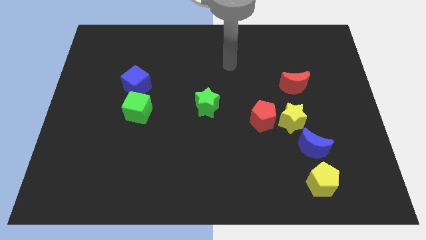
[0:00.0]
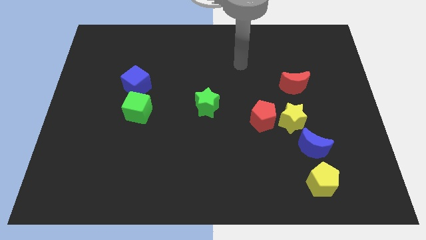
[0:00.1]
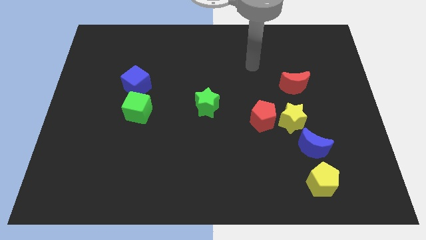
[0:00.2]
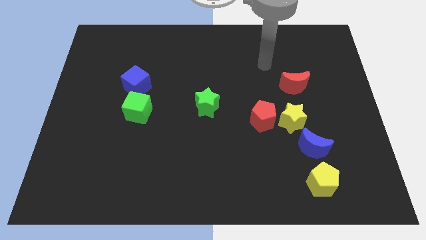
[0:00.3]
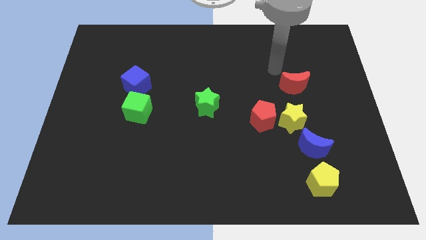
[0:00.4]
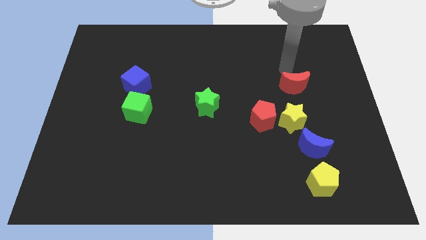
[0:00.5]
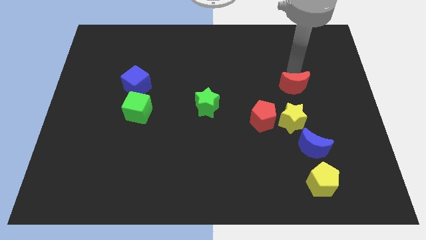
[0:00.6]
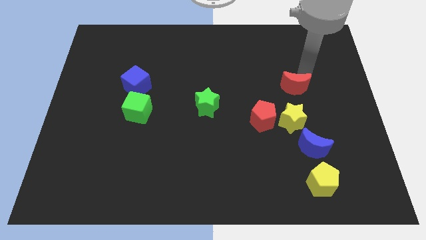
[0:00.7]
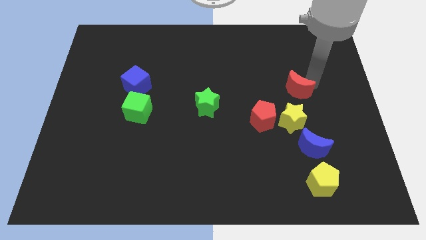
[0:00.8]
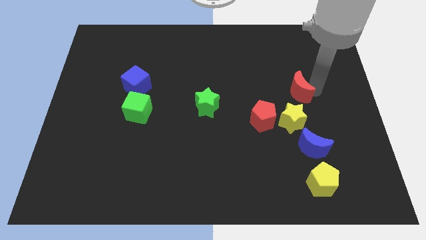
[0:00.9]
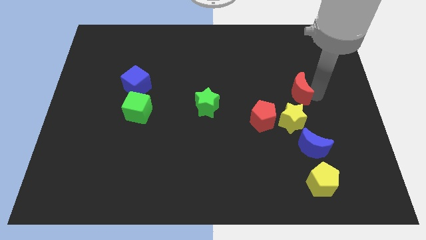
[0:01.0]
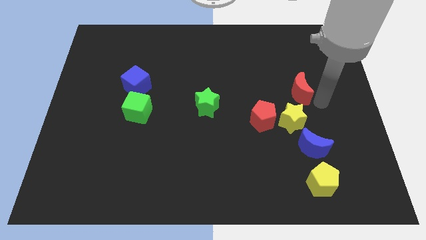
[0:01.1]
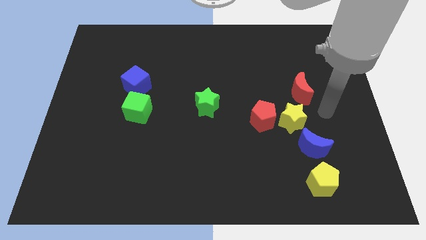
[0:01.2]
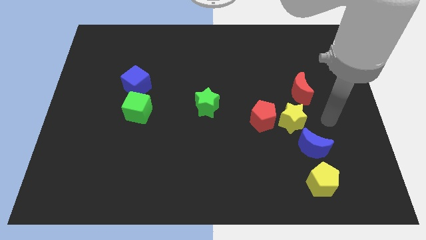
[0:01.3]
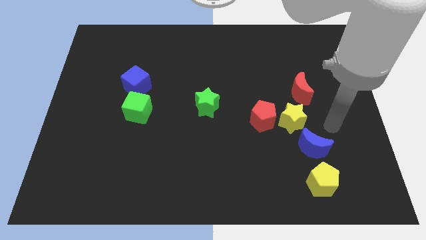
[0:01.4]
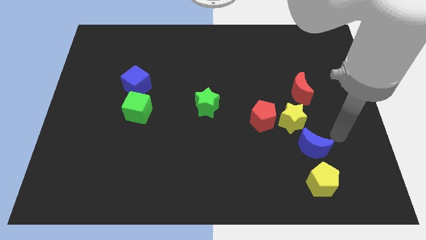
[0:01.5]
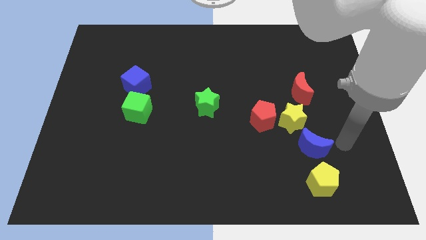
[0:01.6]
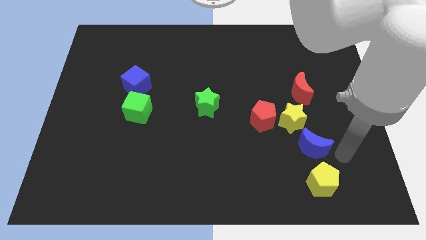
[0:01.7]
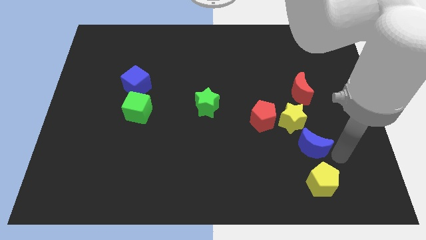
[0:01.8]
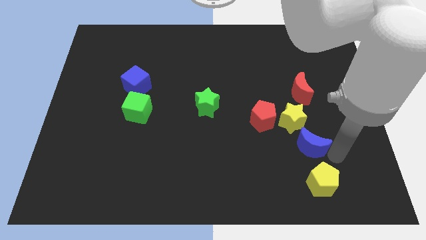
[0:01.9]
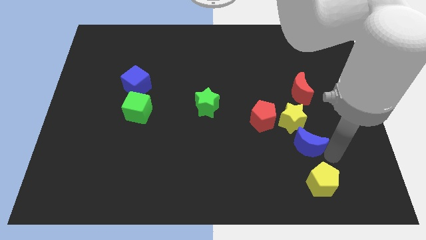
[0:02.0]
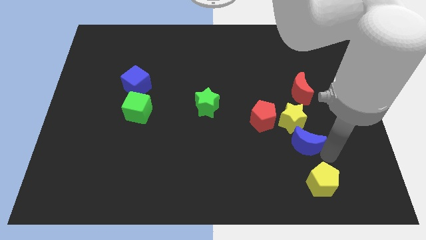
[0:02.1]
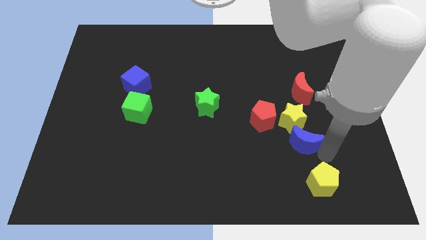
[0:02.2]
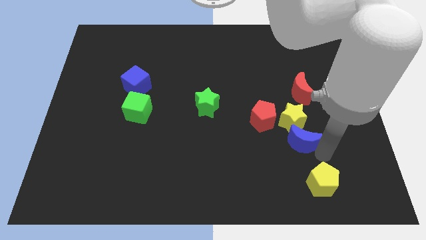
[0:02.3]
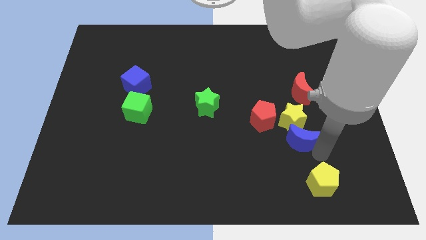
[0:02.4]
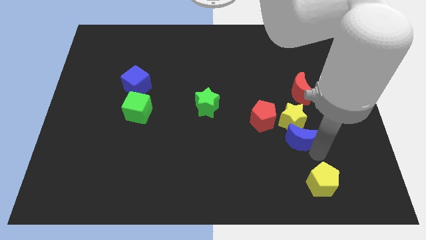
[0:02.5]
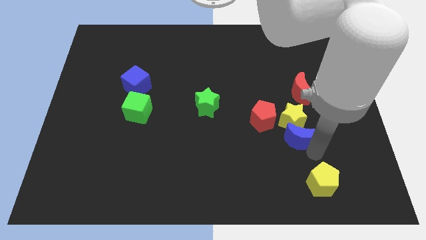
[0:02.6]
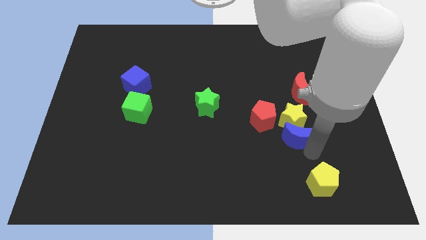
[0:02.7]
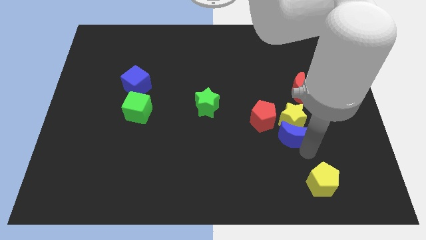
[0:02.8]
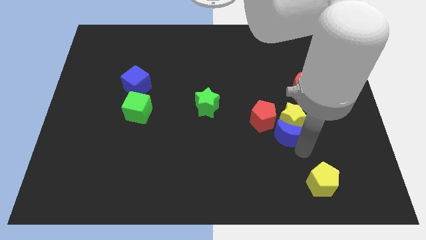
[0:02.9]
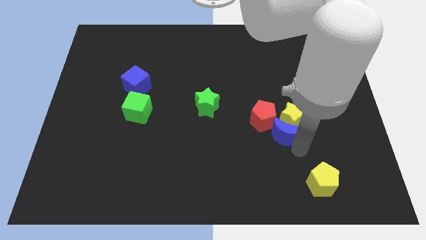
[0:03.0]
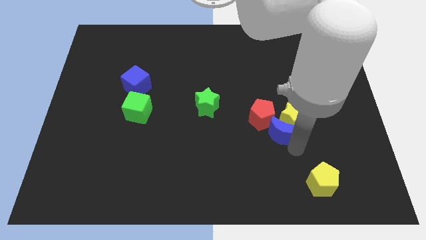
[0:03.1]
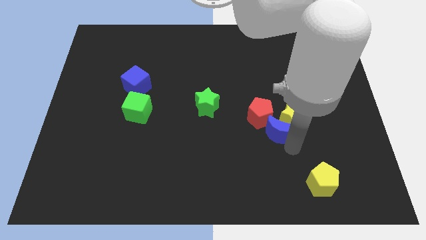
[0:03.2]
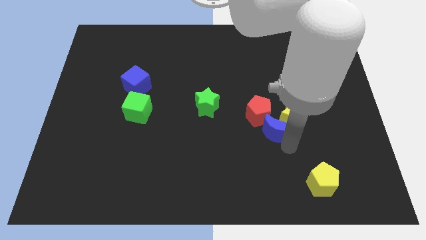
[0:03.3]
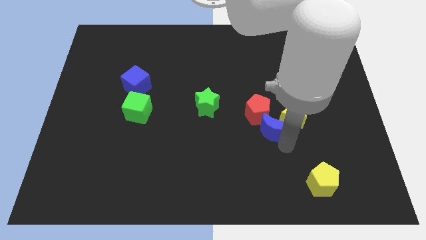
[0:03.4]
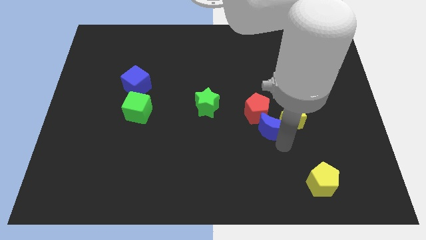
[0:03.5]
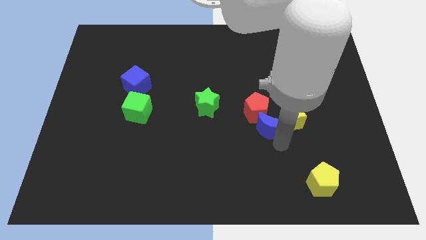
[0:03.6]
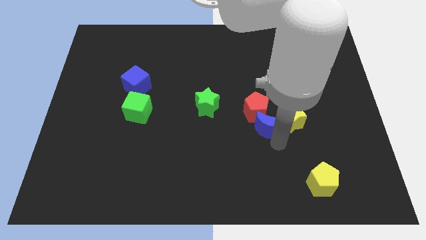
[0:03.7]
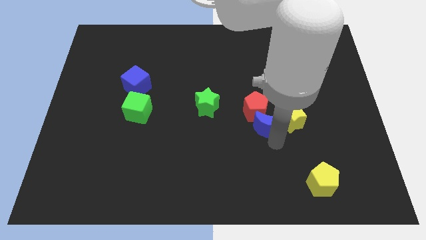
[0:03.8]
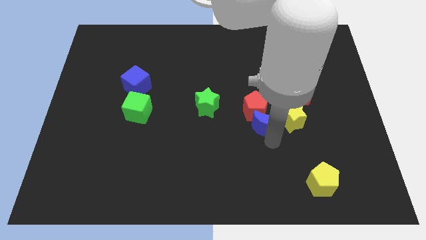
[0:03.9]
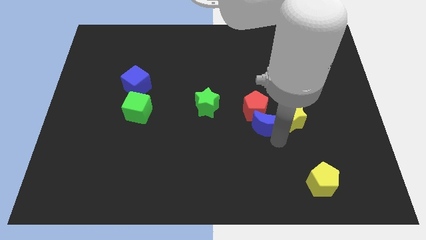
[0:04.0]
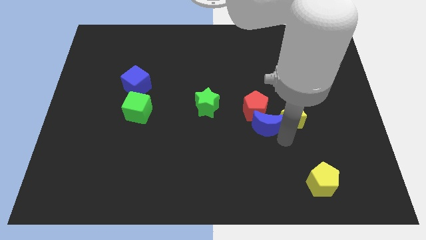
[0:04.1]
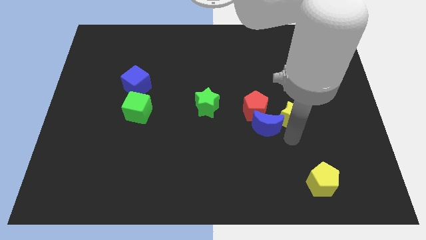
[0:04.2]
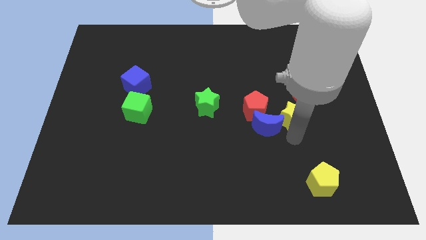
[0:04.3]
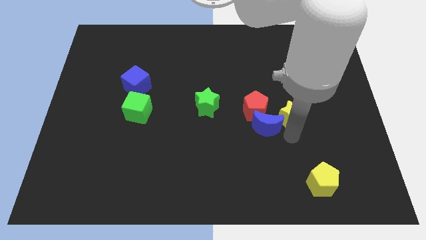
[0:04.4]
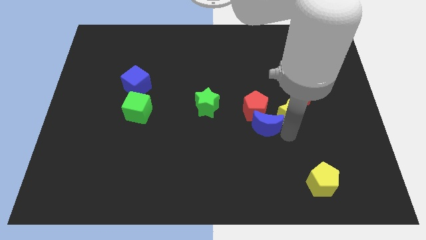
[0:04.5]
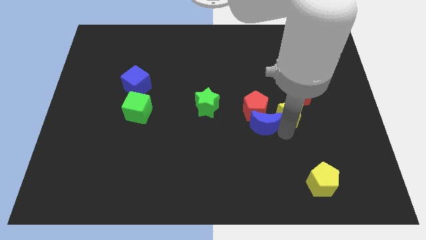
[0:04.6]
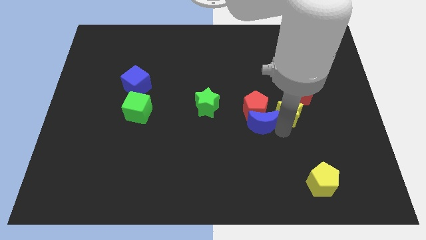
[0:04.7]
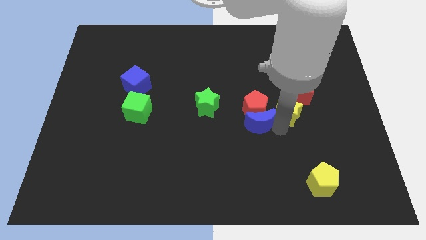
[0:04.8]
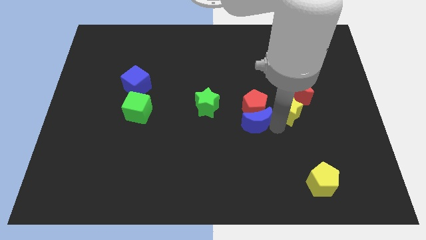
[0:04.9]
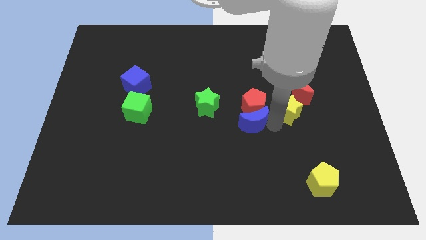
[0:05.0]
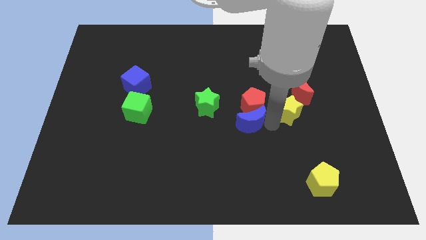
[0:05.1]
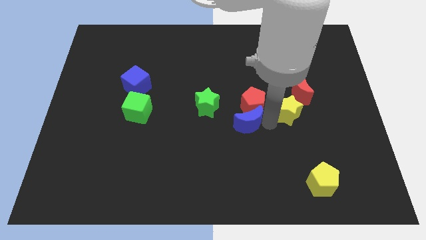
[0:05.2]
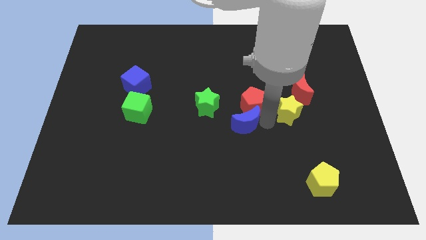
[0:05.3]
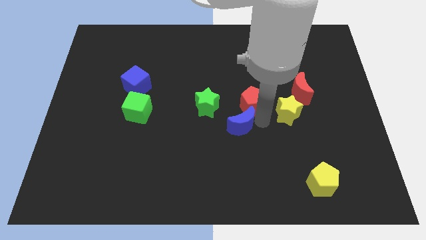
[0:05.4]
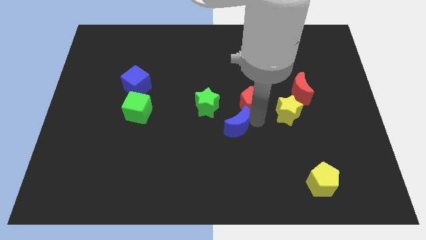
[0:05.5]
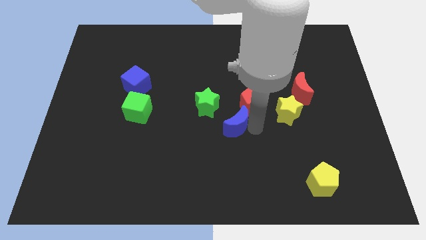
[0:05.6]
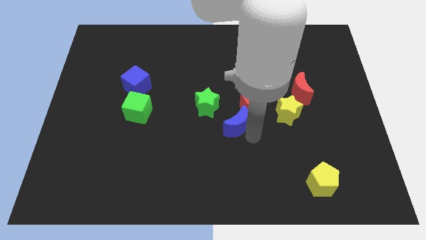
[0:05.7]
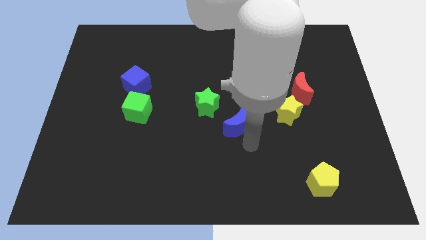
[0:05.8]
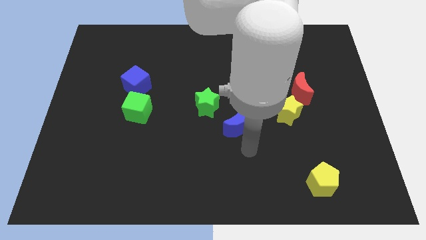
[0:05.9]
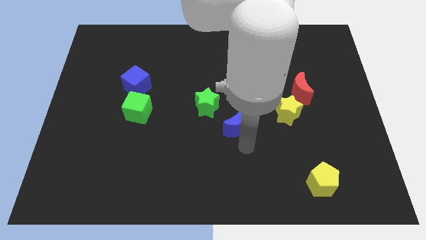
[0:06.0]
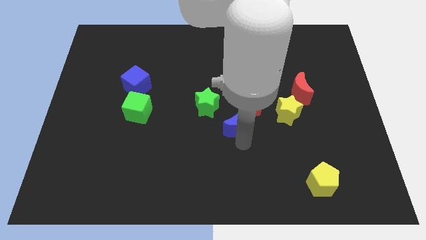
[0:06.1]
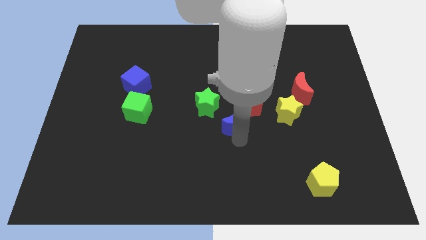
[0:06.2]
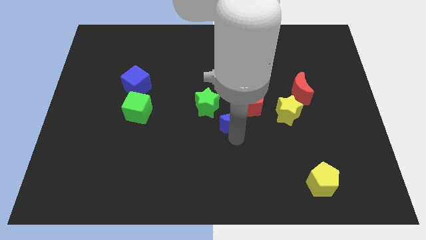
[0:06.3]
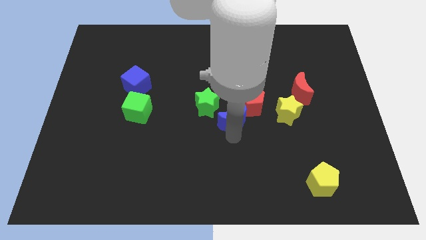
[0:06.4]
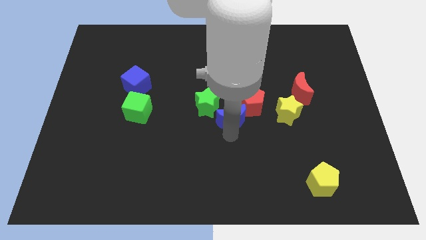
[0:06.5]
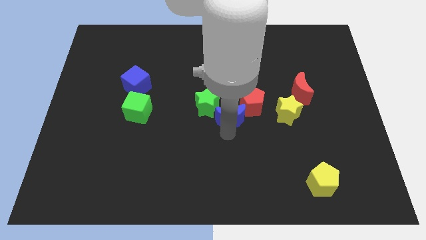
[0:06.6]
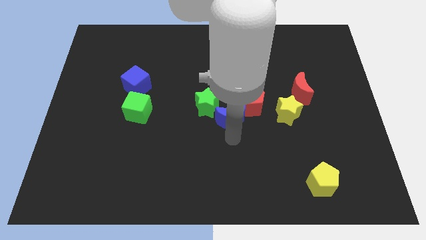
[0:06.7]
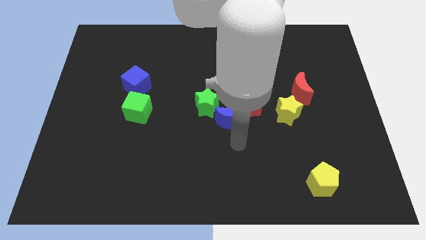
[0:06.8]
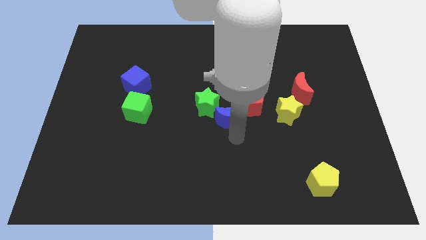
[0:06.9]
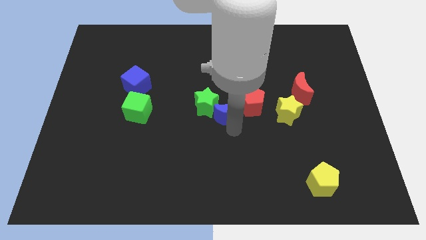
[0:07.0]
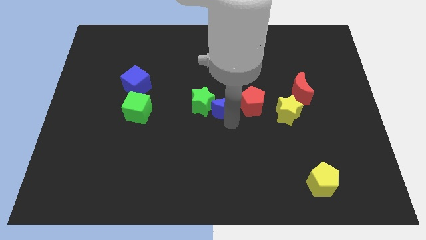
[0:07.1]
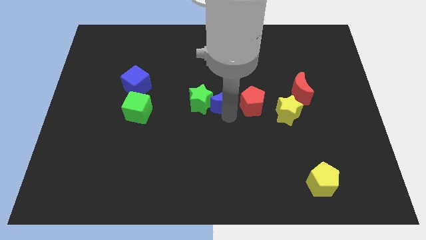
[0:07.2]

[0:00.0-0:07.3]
push the blue moon upwards and to the left

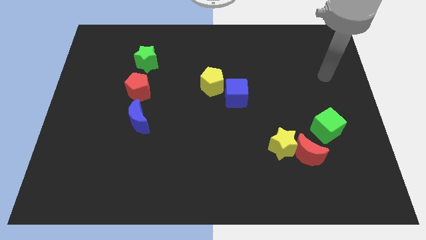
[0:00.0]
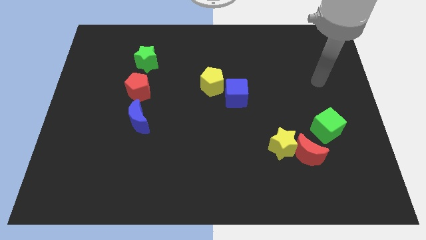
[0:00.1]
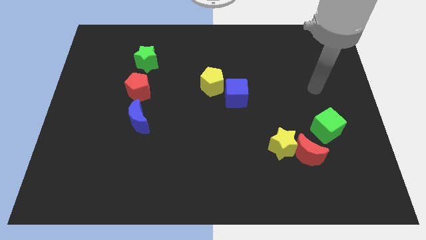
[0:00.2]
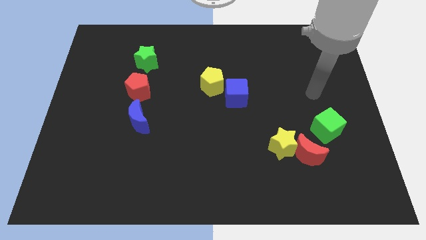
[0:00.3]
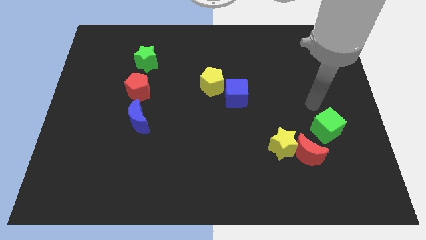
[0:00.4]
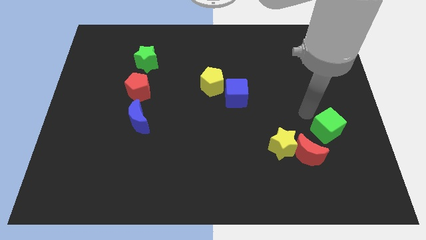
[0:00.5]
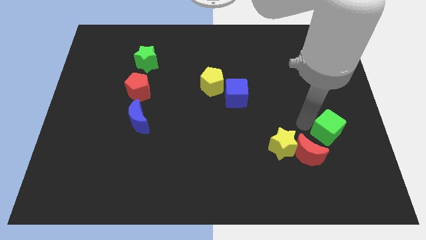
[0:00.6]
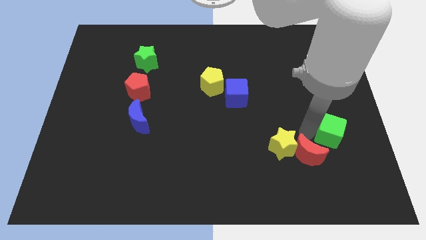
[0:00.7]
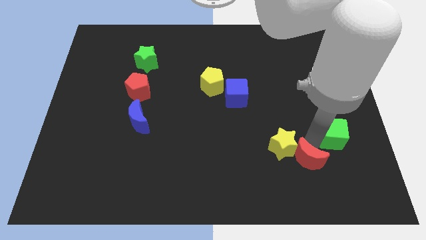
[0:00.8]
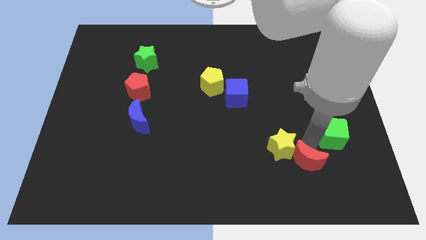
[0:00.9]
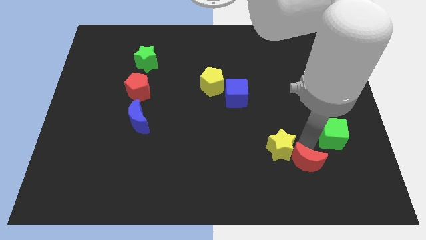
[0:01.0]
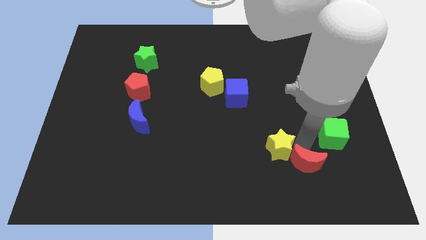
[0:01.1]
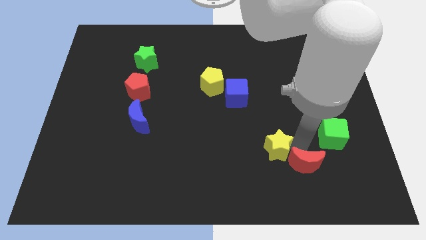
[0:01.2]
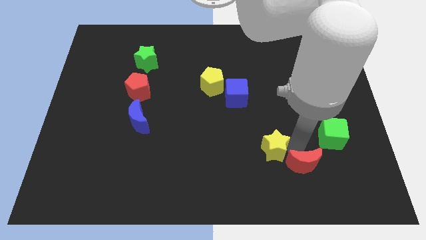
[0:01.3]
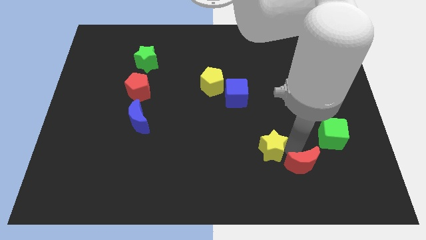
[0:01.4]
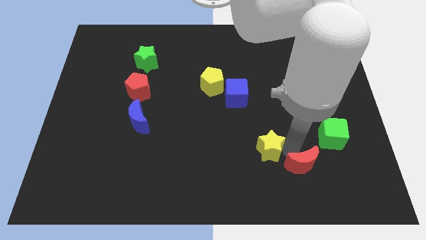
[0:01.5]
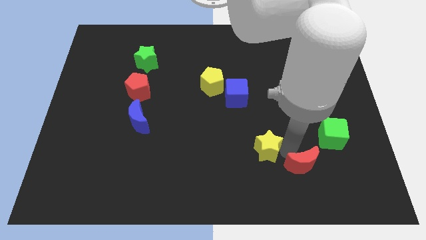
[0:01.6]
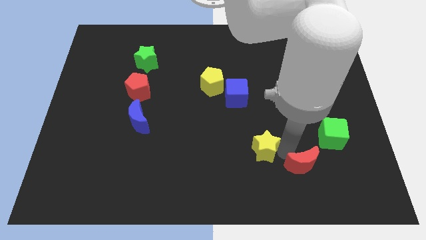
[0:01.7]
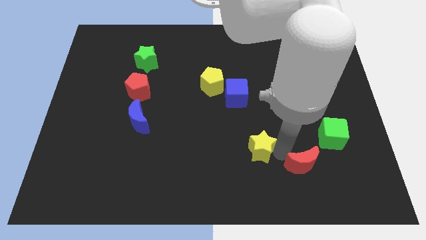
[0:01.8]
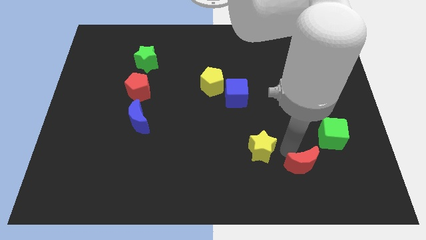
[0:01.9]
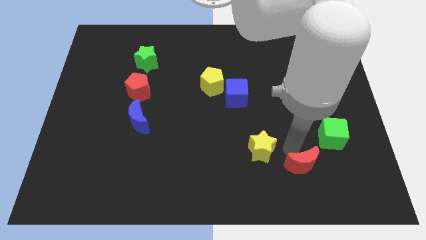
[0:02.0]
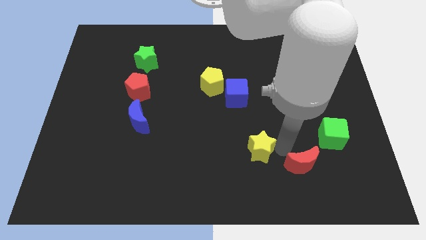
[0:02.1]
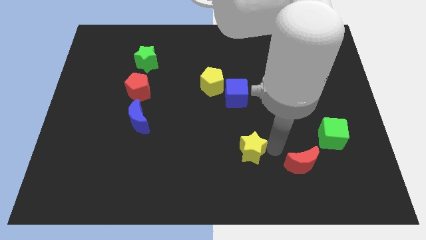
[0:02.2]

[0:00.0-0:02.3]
slide the yellow star a little bit to the left
